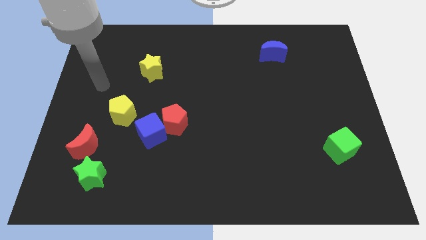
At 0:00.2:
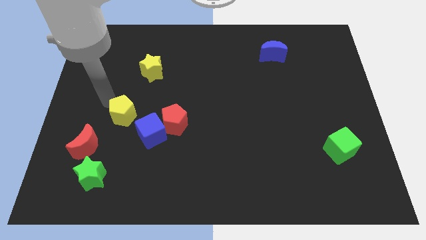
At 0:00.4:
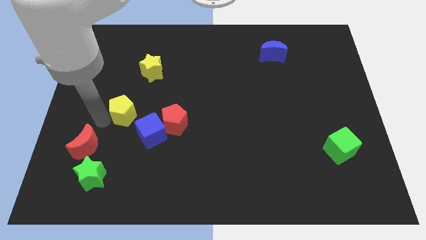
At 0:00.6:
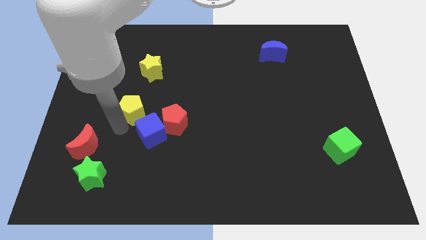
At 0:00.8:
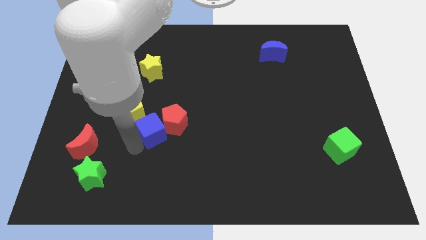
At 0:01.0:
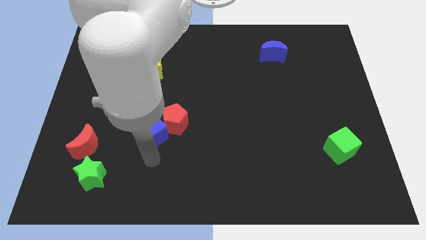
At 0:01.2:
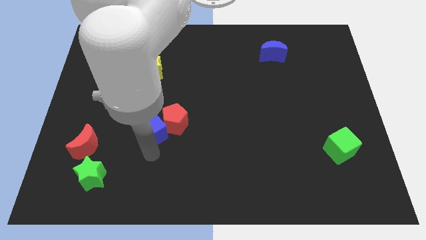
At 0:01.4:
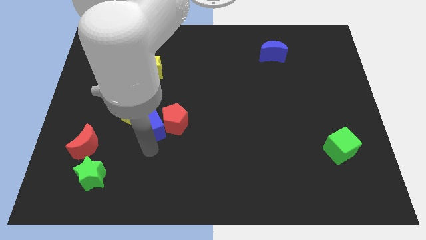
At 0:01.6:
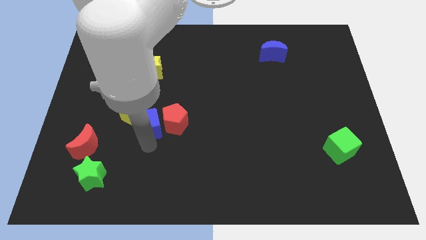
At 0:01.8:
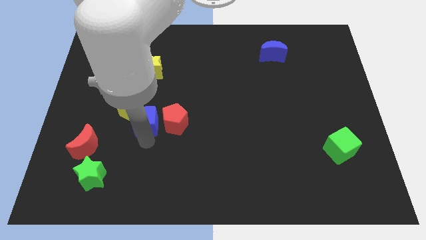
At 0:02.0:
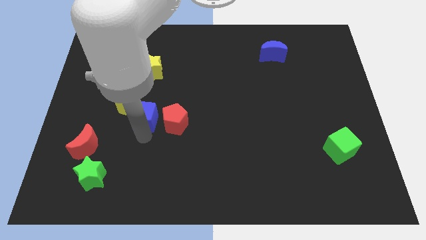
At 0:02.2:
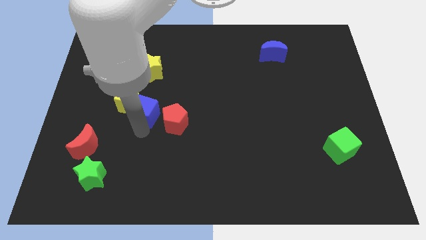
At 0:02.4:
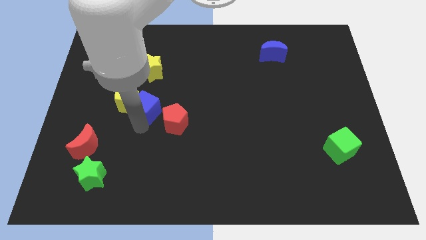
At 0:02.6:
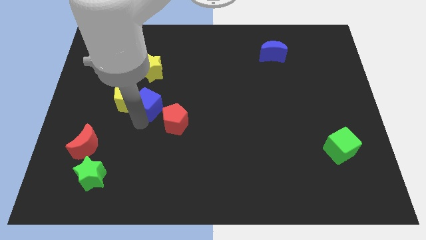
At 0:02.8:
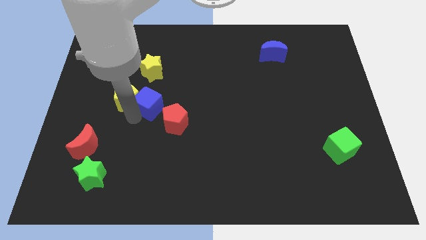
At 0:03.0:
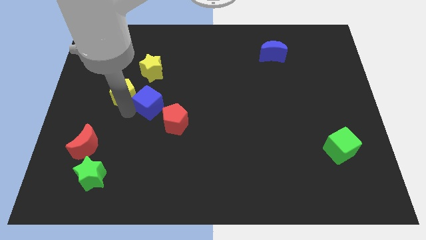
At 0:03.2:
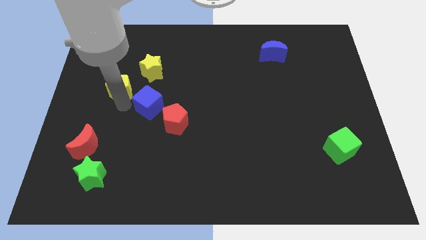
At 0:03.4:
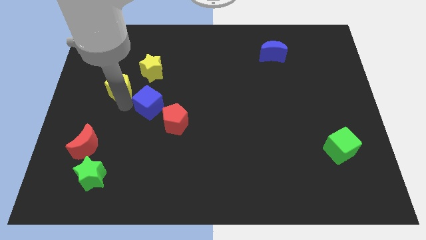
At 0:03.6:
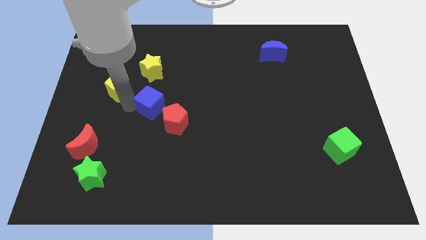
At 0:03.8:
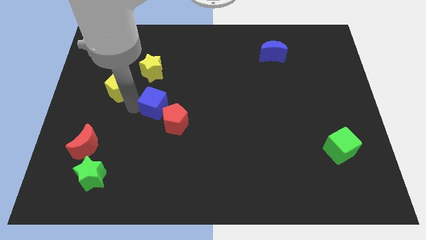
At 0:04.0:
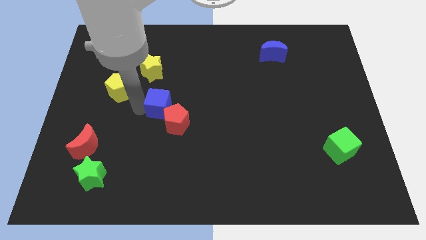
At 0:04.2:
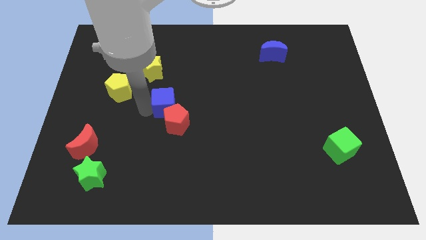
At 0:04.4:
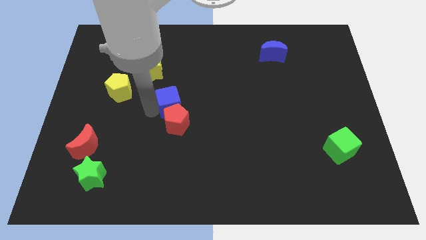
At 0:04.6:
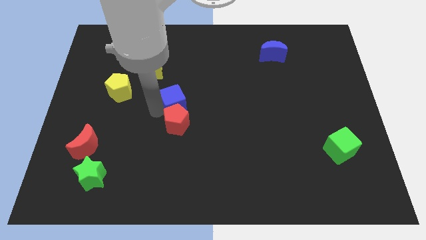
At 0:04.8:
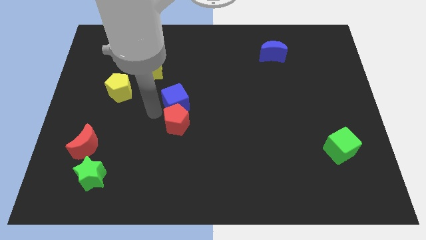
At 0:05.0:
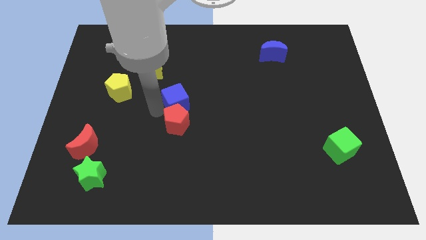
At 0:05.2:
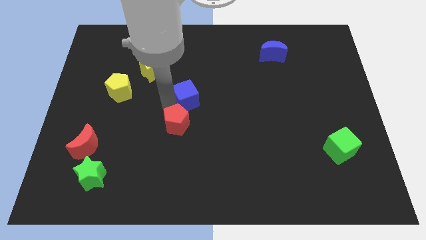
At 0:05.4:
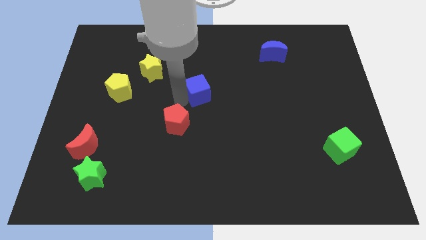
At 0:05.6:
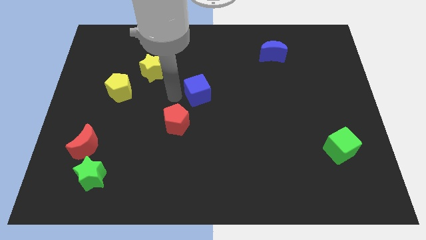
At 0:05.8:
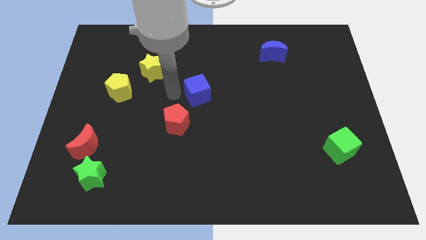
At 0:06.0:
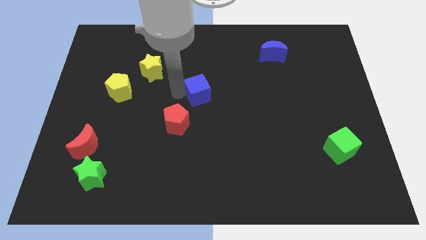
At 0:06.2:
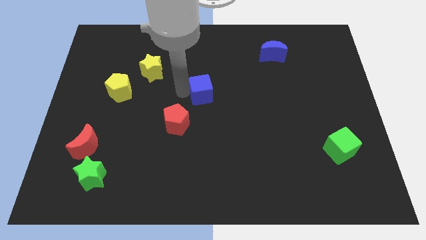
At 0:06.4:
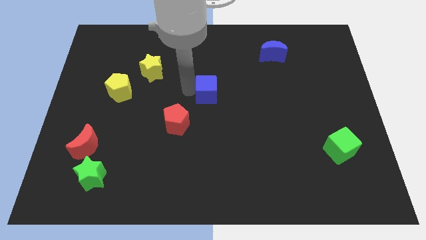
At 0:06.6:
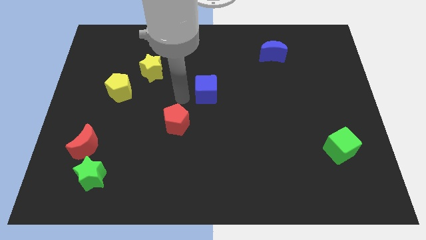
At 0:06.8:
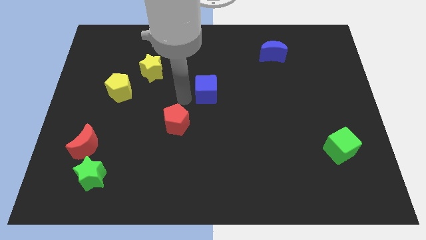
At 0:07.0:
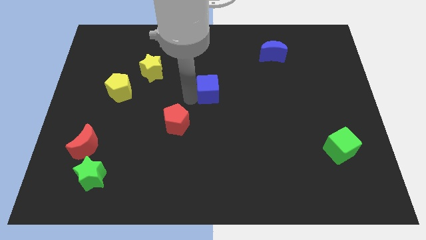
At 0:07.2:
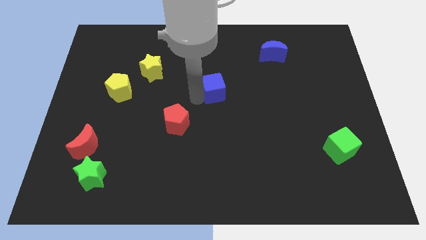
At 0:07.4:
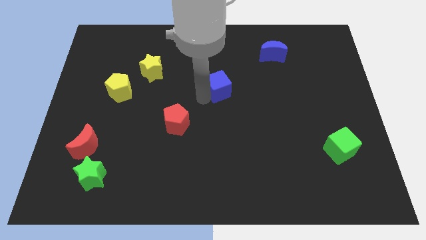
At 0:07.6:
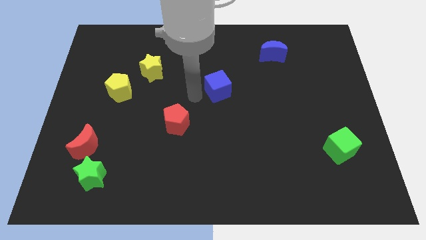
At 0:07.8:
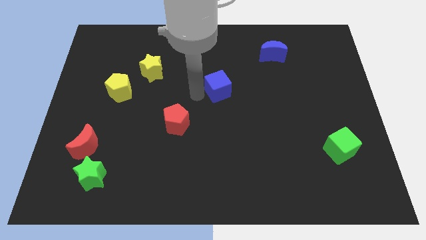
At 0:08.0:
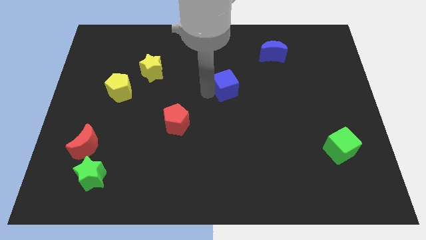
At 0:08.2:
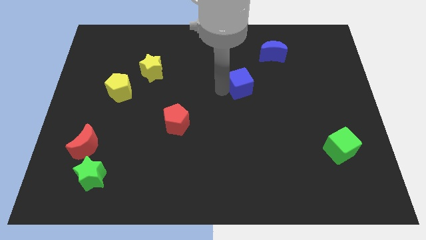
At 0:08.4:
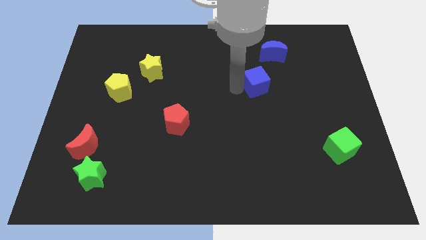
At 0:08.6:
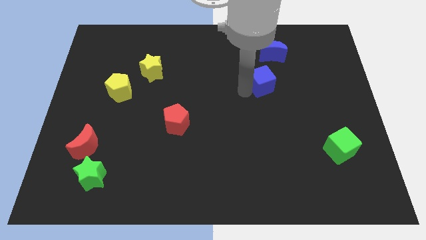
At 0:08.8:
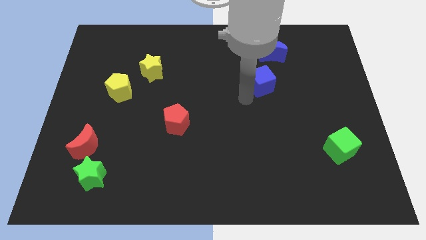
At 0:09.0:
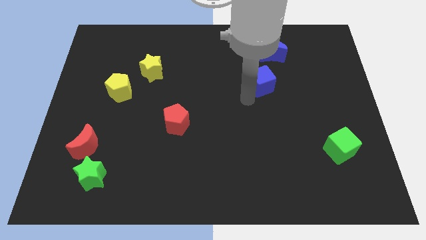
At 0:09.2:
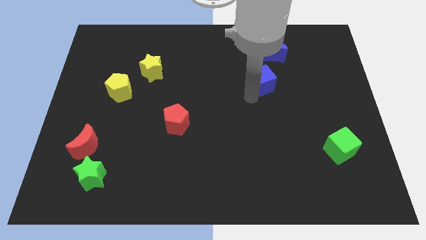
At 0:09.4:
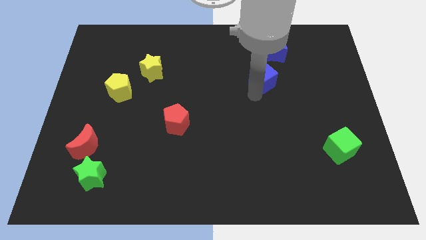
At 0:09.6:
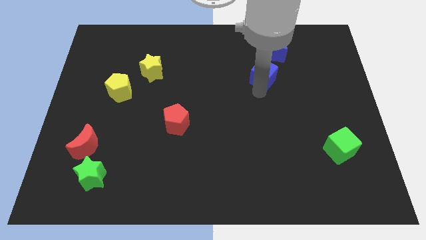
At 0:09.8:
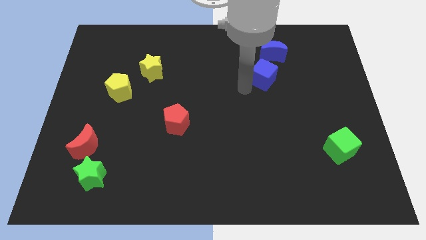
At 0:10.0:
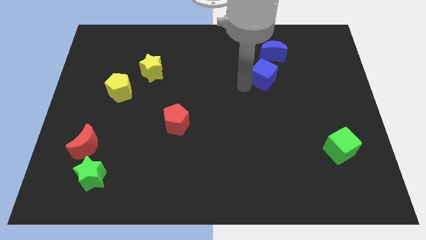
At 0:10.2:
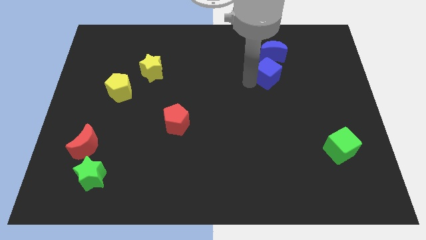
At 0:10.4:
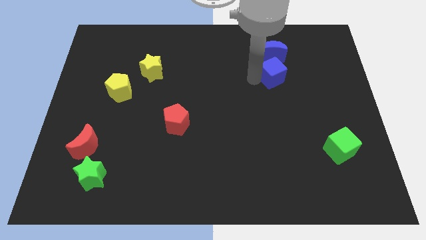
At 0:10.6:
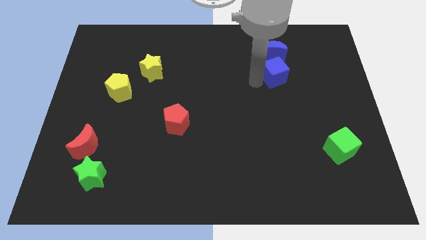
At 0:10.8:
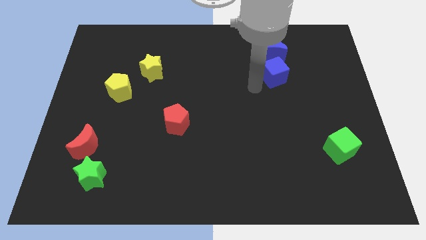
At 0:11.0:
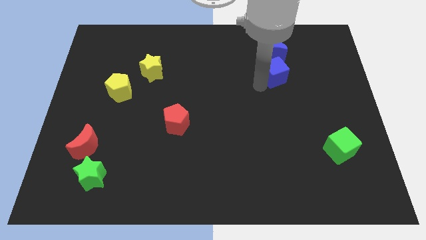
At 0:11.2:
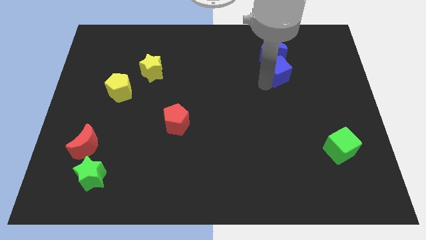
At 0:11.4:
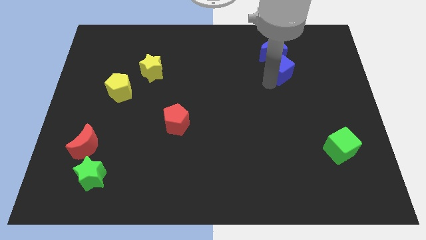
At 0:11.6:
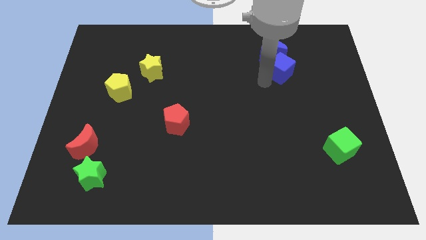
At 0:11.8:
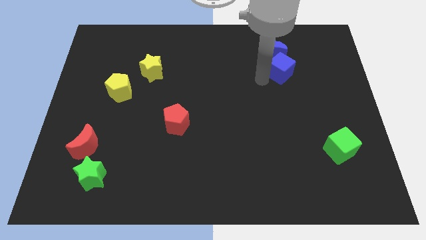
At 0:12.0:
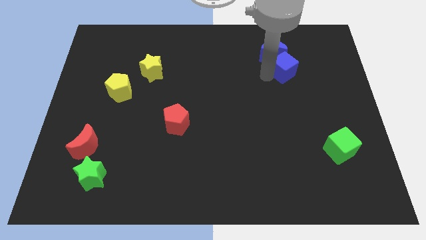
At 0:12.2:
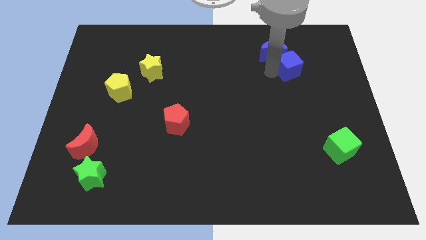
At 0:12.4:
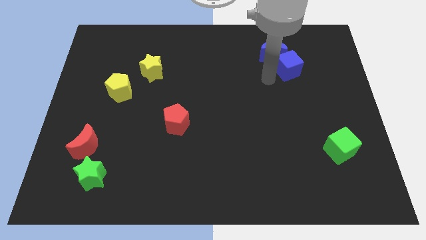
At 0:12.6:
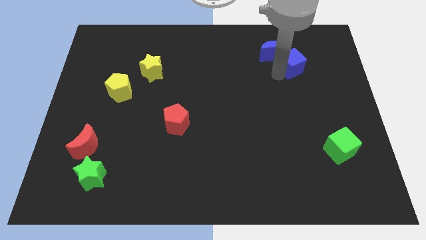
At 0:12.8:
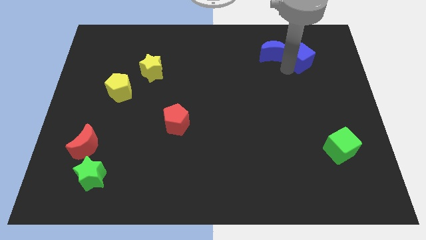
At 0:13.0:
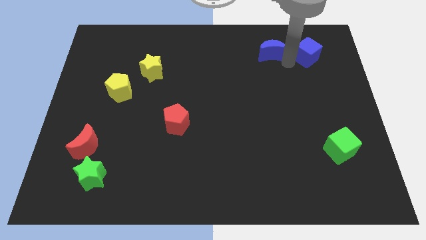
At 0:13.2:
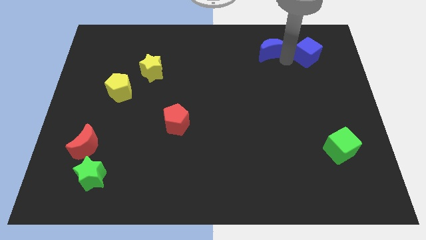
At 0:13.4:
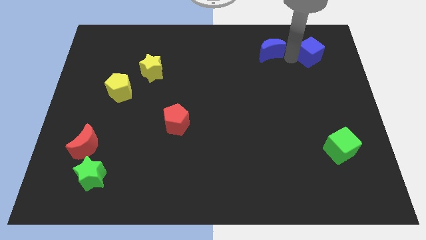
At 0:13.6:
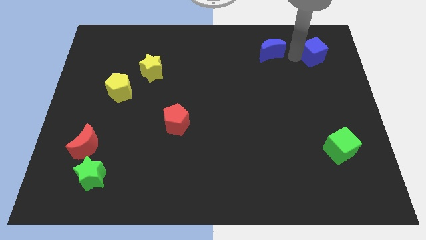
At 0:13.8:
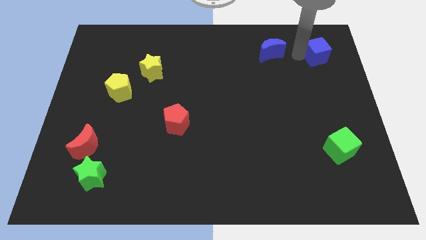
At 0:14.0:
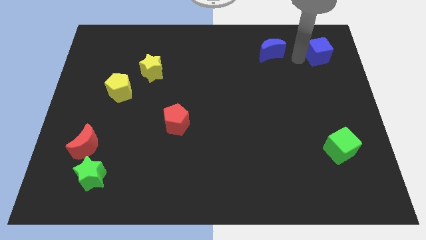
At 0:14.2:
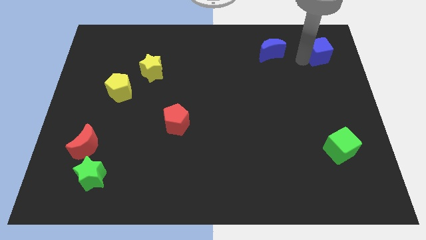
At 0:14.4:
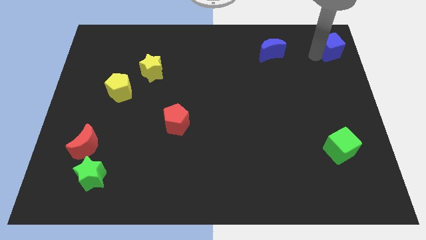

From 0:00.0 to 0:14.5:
slide the blue cube to the top right
